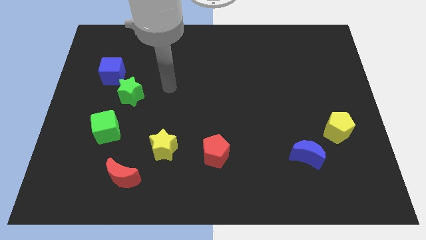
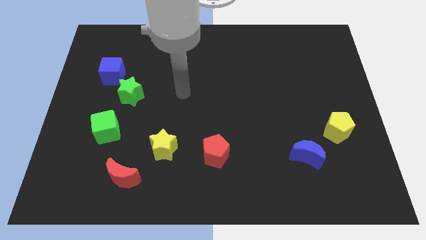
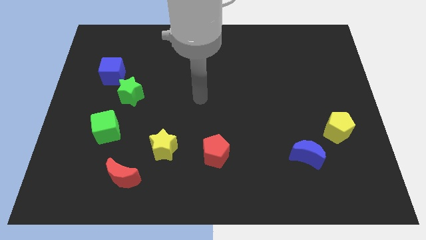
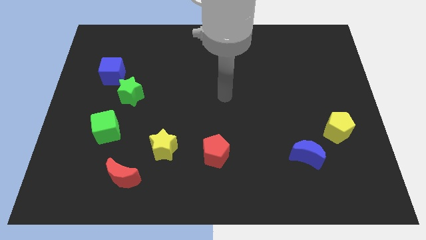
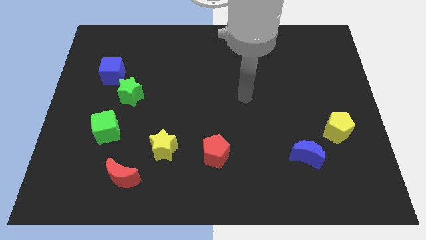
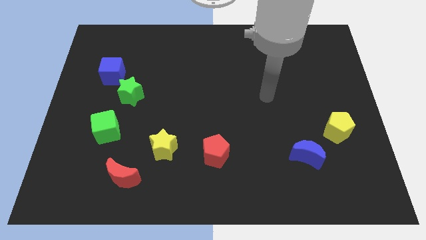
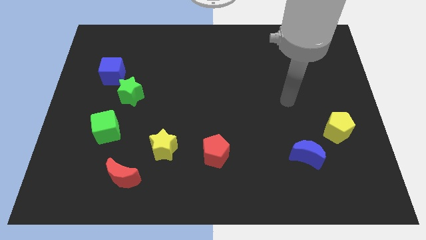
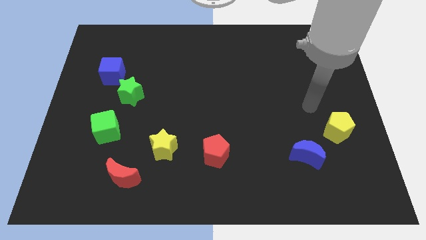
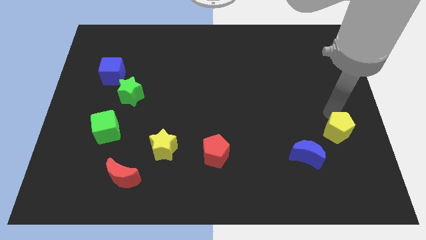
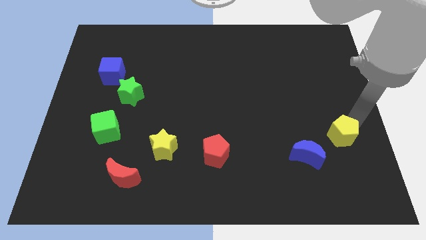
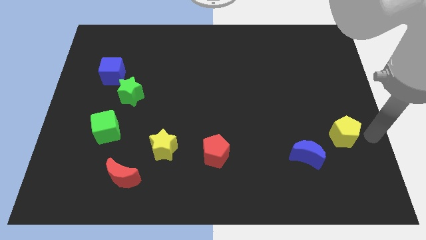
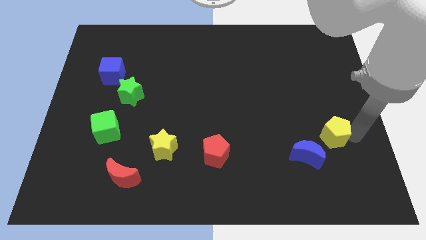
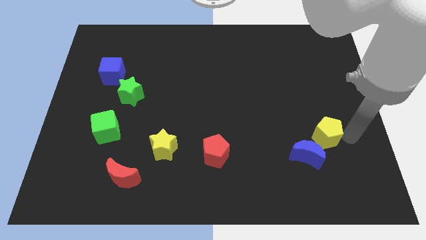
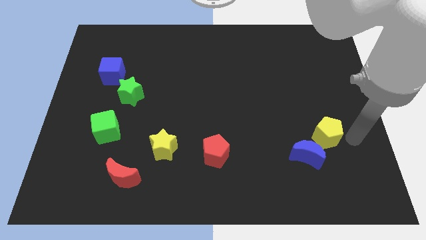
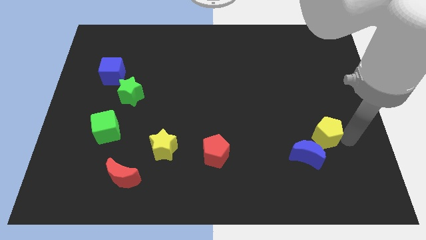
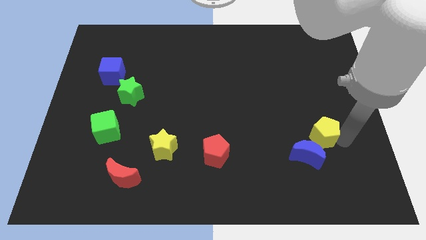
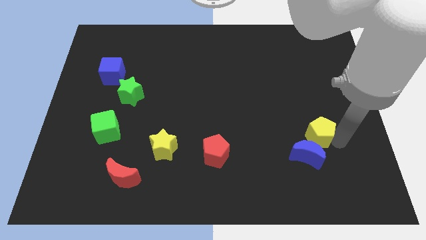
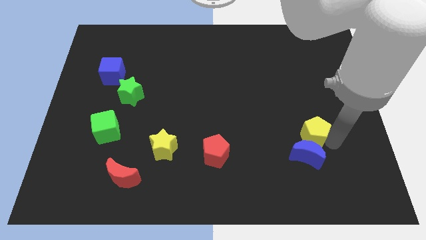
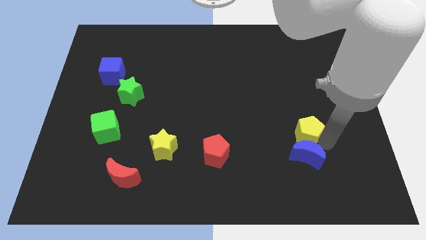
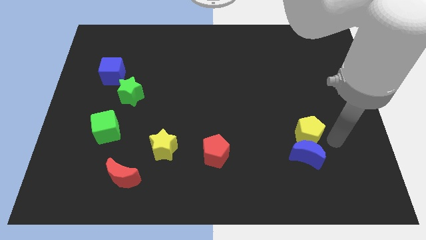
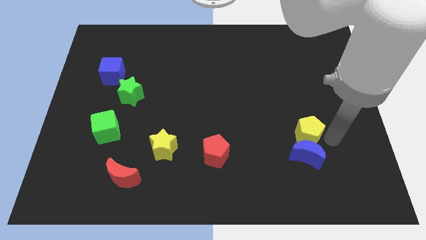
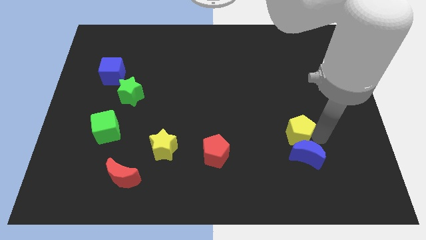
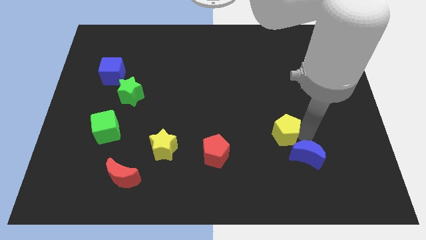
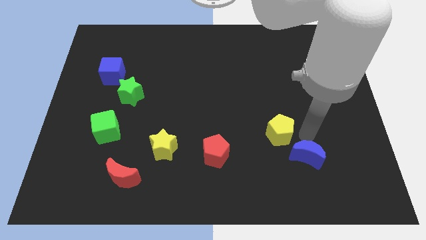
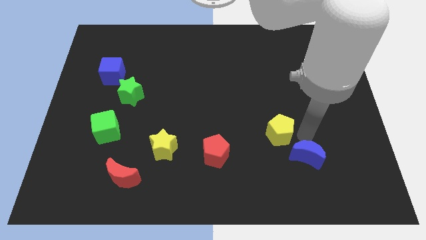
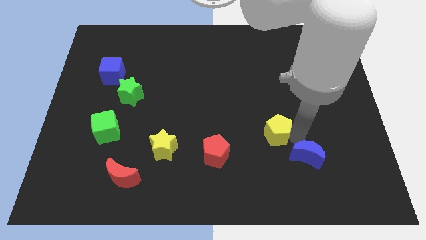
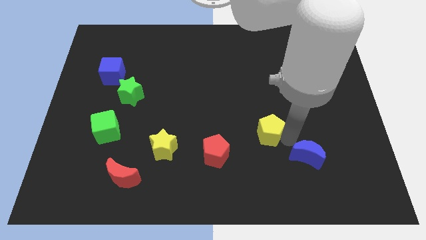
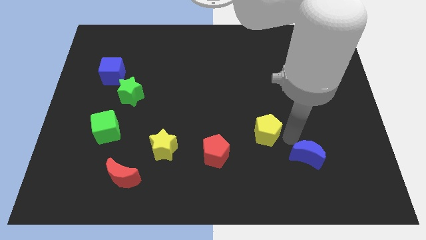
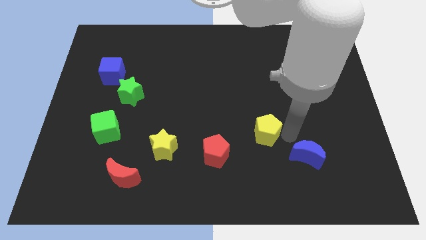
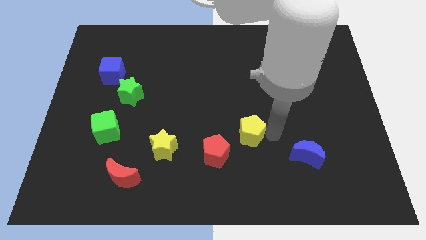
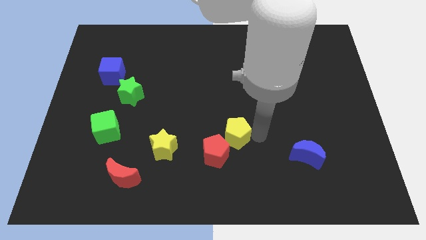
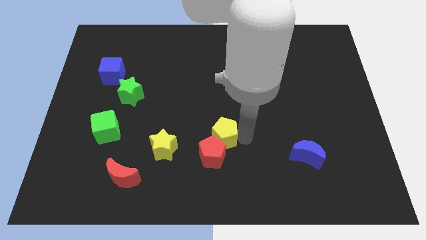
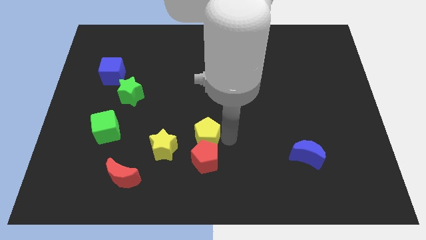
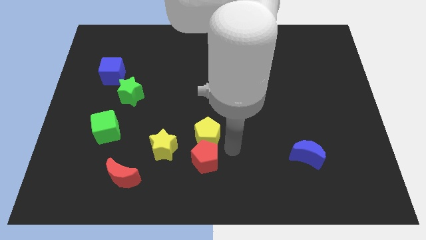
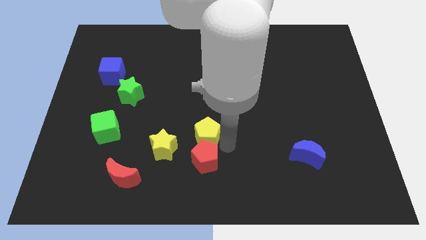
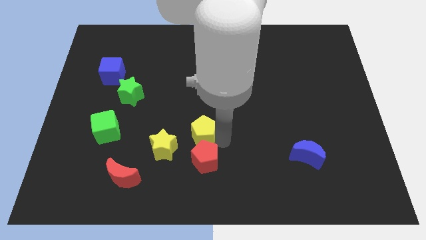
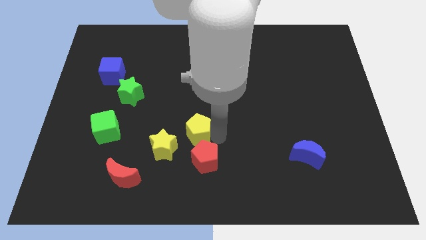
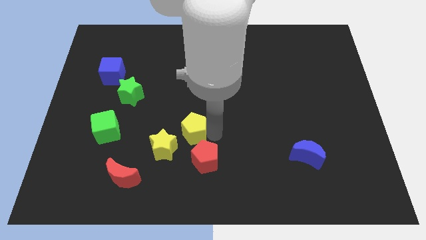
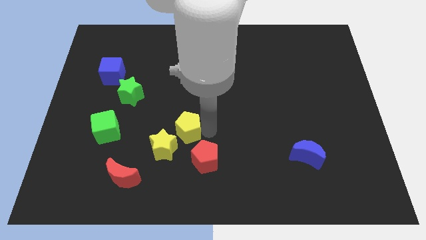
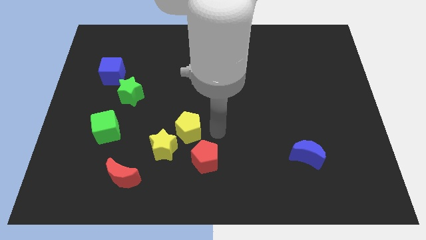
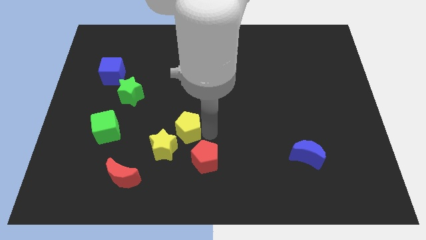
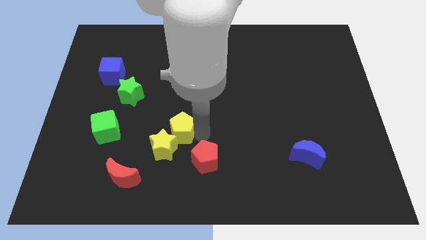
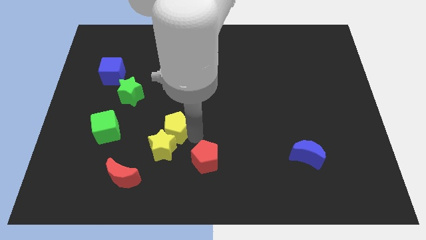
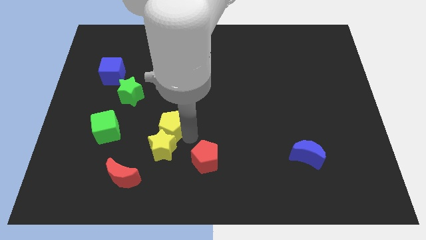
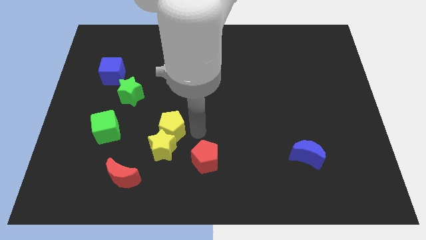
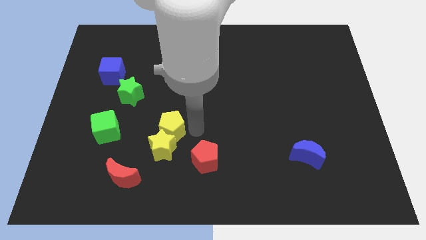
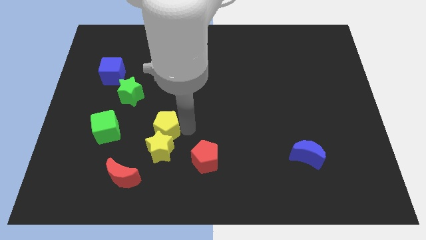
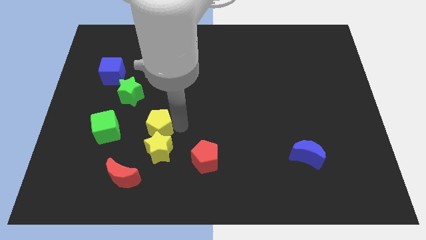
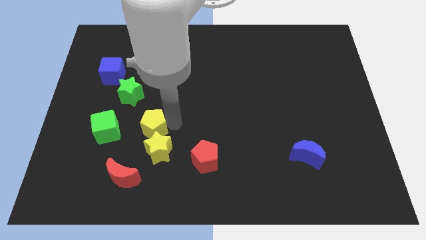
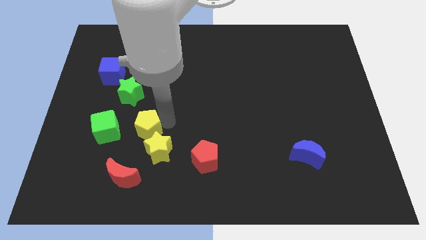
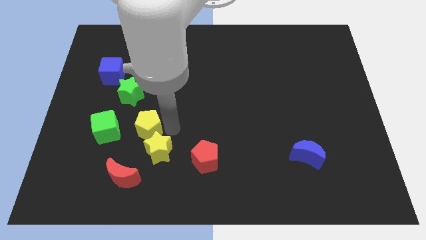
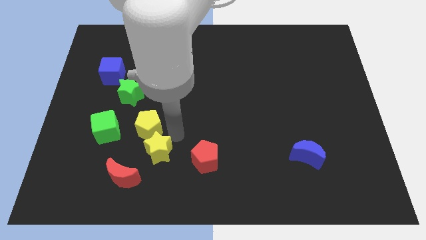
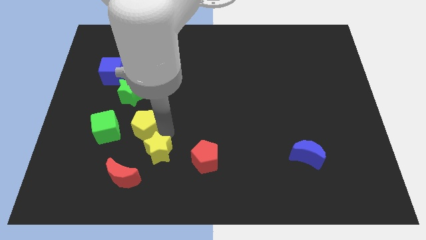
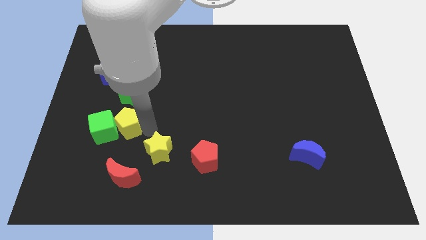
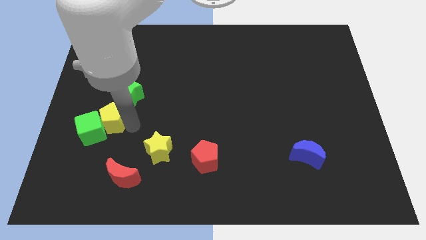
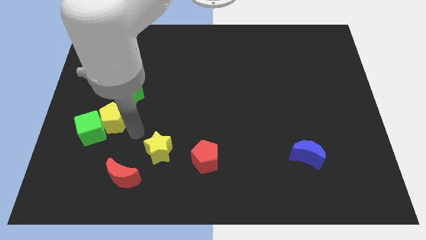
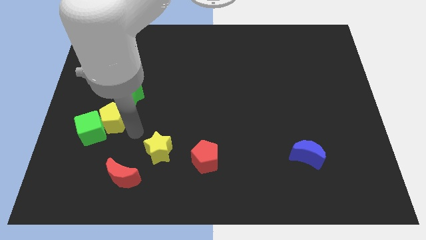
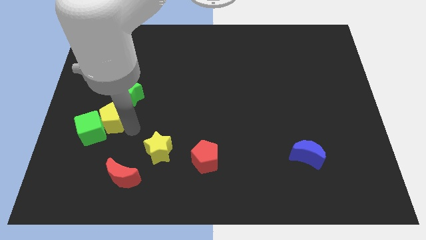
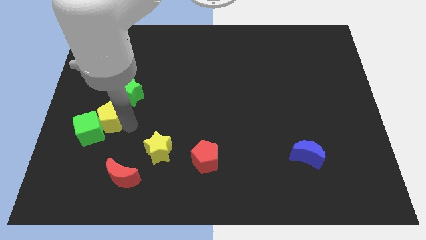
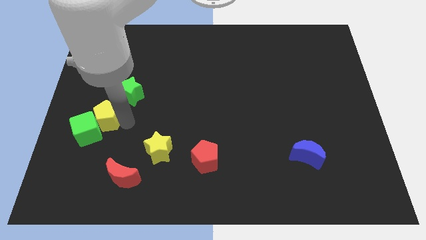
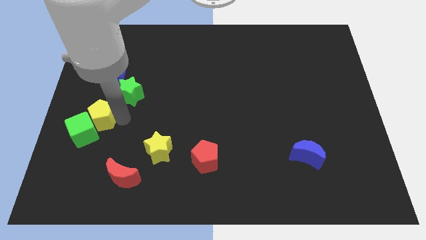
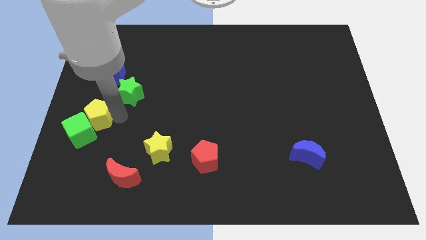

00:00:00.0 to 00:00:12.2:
move the yellow pentagon to the left side
